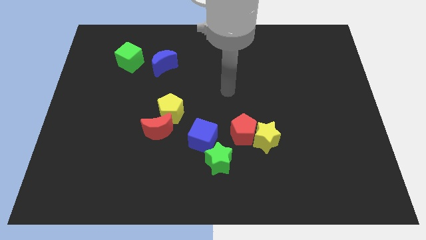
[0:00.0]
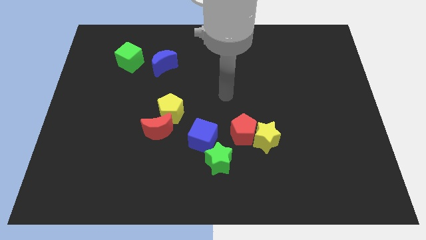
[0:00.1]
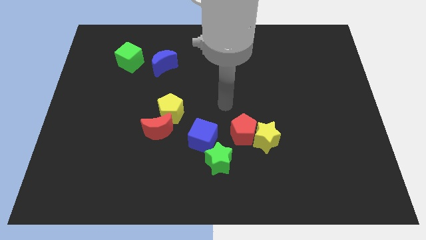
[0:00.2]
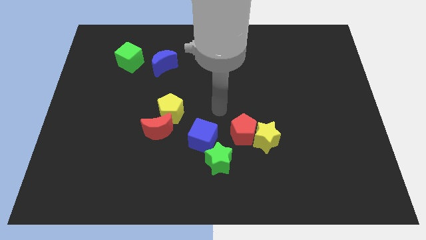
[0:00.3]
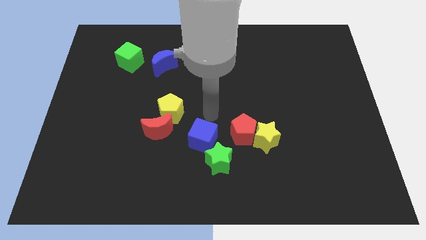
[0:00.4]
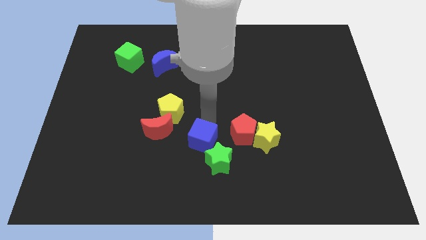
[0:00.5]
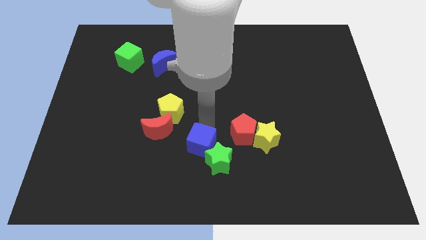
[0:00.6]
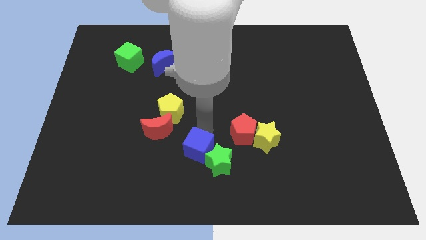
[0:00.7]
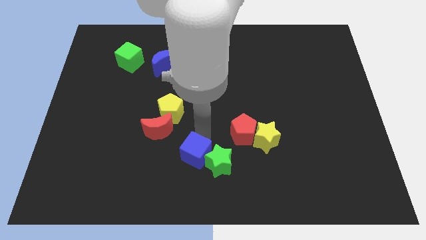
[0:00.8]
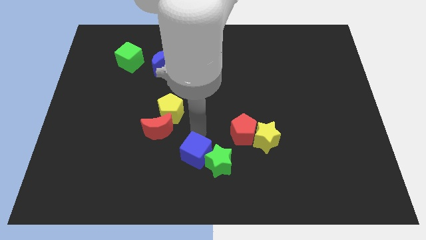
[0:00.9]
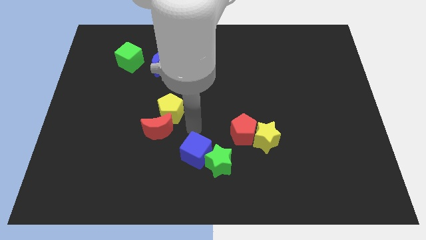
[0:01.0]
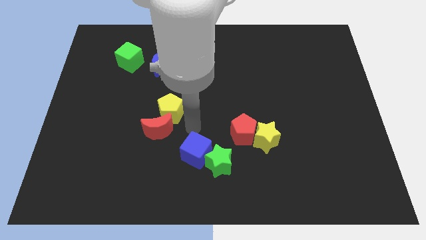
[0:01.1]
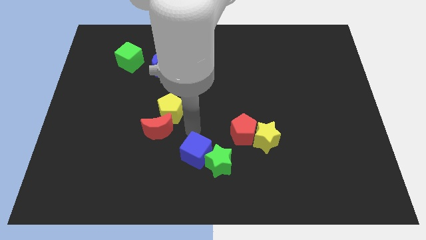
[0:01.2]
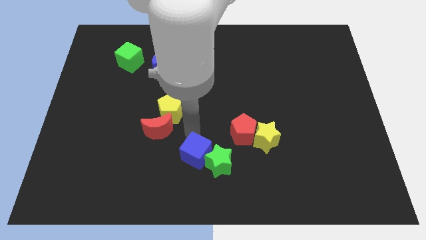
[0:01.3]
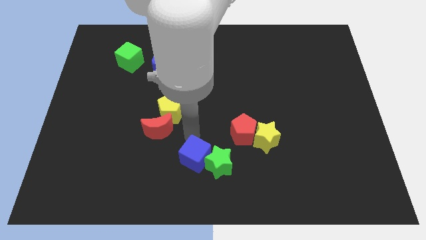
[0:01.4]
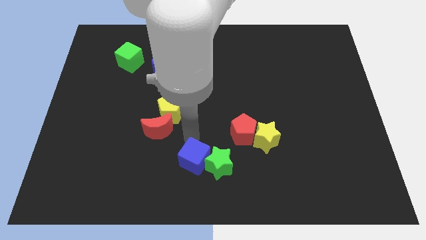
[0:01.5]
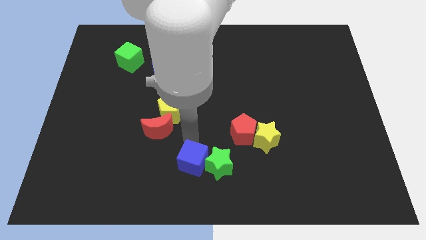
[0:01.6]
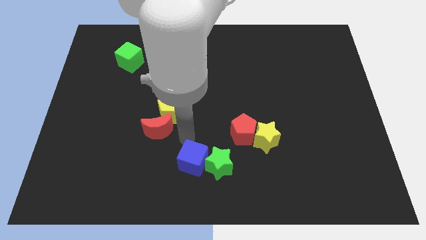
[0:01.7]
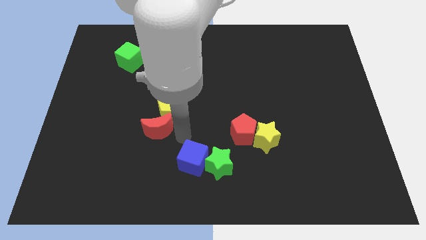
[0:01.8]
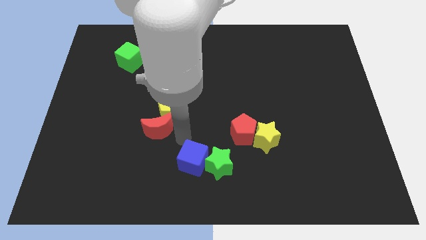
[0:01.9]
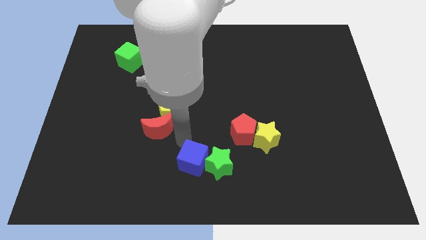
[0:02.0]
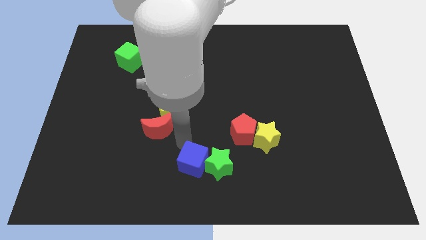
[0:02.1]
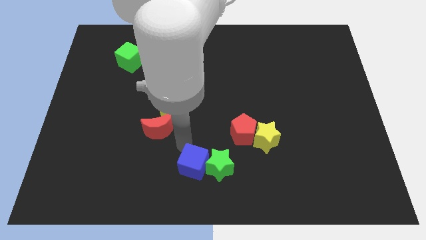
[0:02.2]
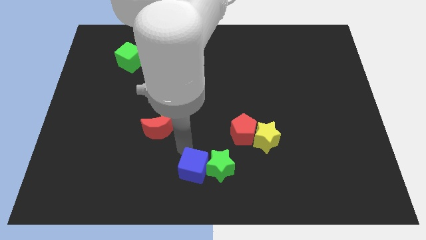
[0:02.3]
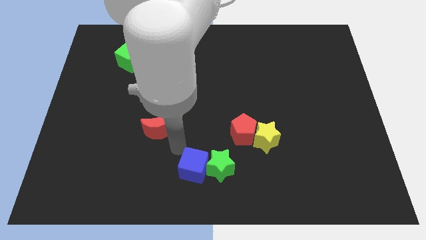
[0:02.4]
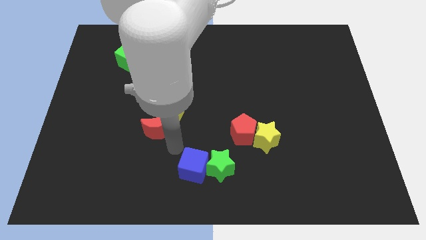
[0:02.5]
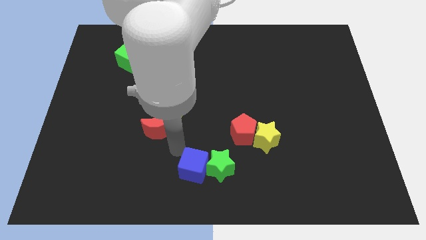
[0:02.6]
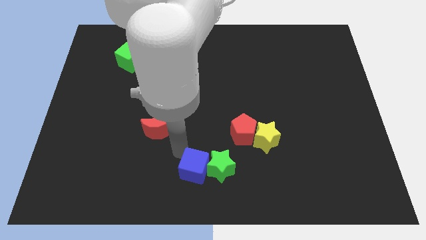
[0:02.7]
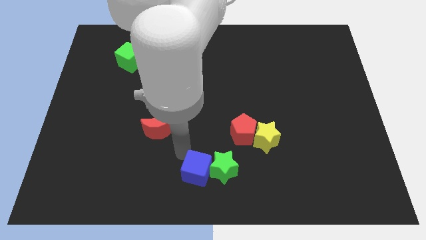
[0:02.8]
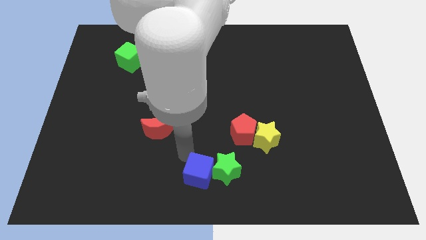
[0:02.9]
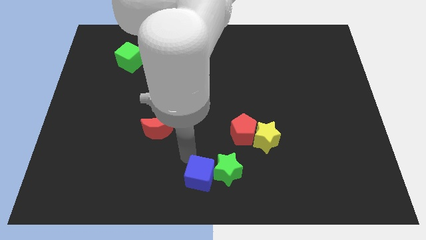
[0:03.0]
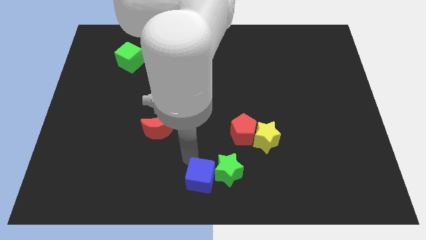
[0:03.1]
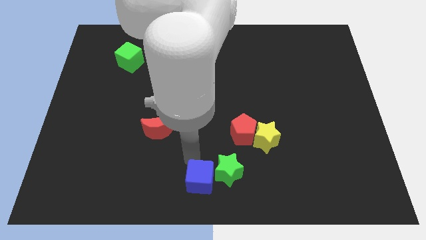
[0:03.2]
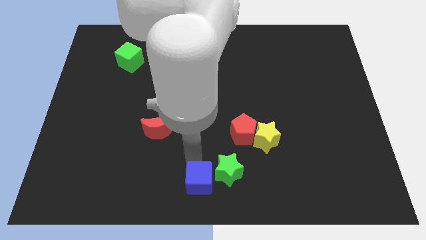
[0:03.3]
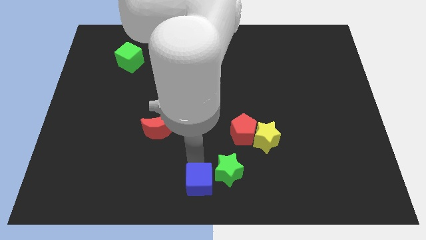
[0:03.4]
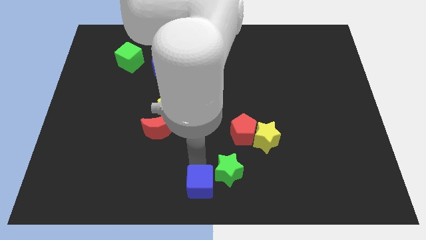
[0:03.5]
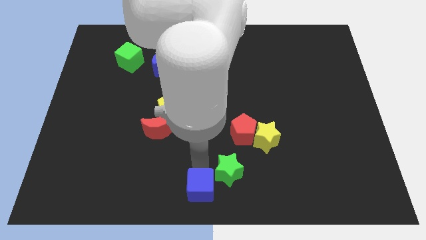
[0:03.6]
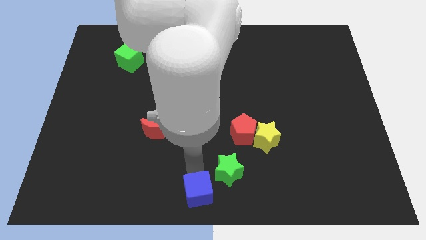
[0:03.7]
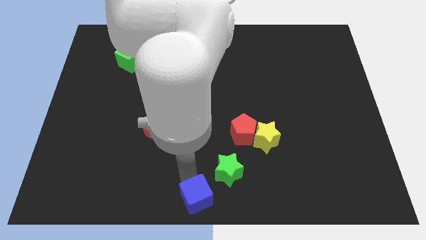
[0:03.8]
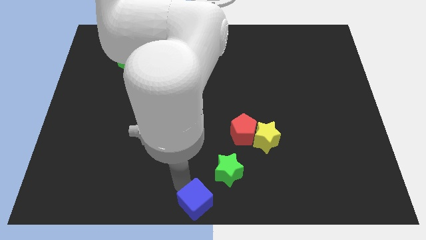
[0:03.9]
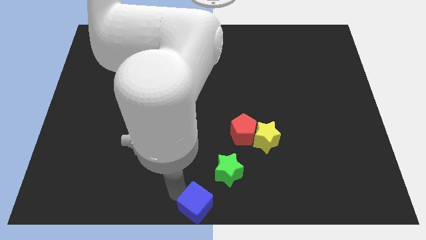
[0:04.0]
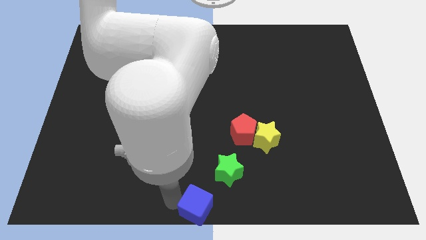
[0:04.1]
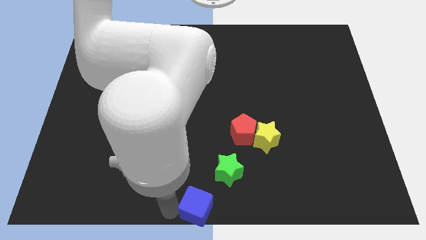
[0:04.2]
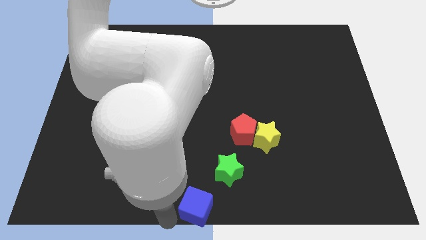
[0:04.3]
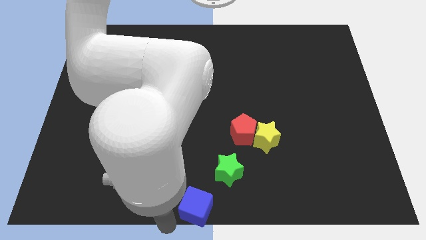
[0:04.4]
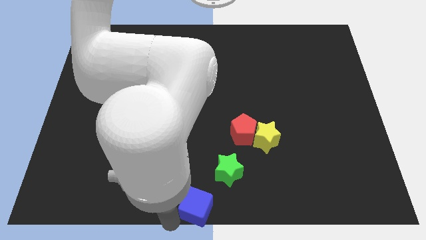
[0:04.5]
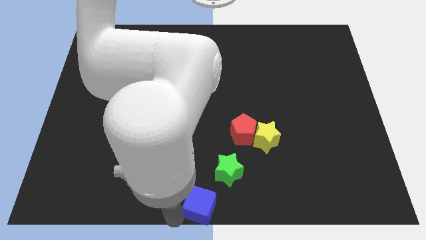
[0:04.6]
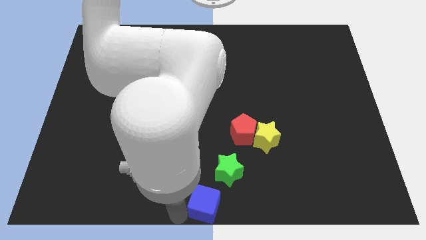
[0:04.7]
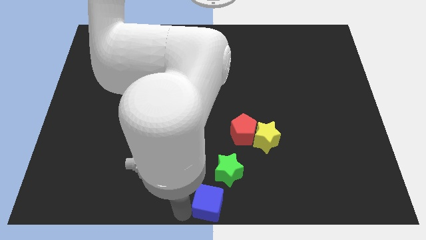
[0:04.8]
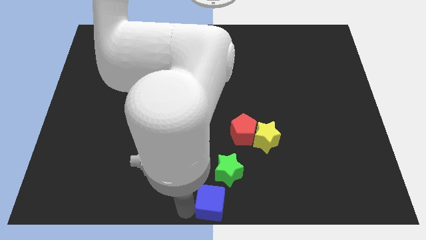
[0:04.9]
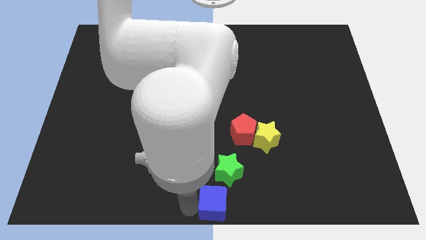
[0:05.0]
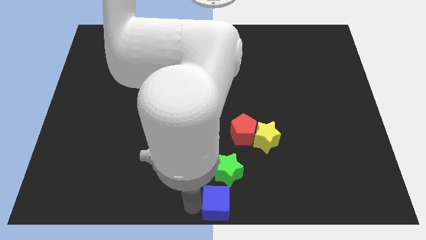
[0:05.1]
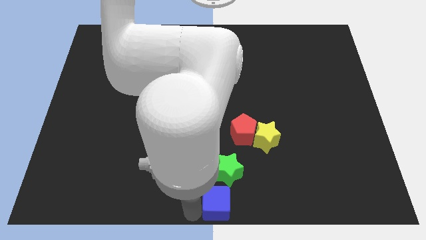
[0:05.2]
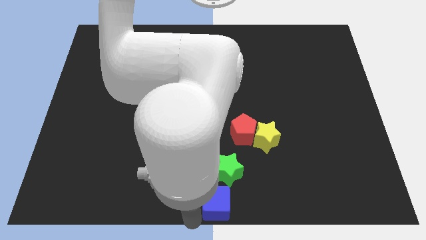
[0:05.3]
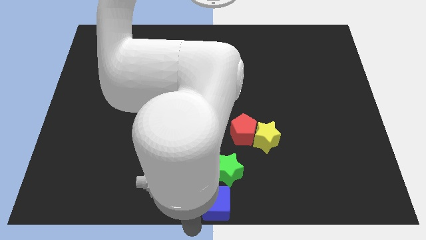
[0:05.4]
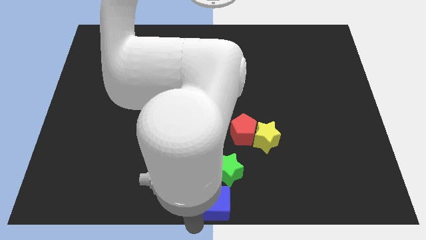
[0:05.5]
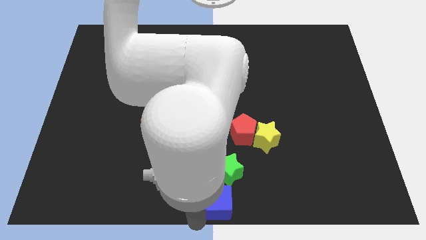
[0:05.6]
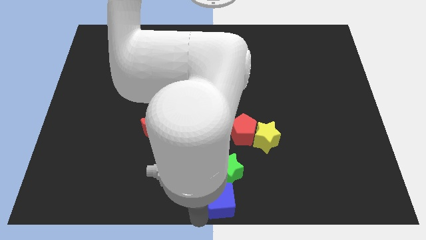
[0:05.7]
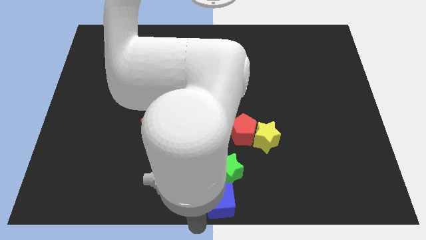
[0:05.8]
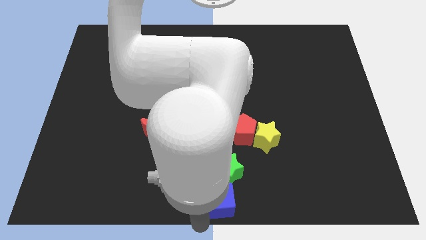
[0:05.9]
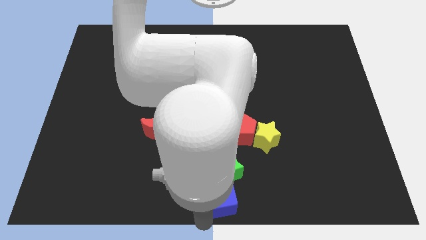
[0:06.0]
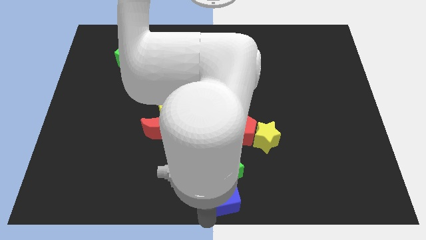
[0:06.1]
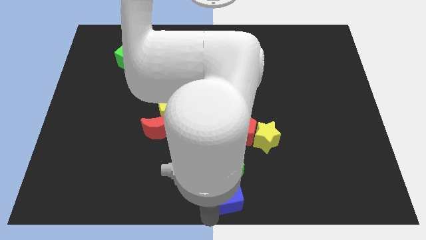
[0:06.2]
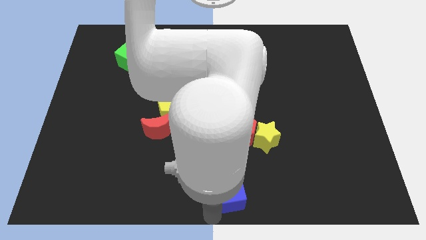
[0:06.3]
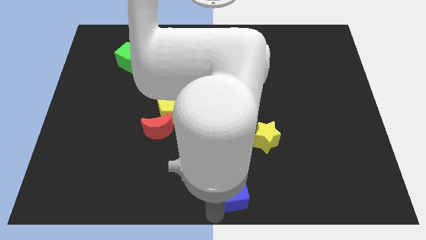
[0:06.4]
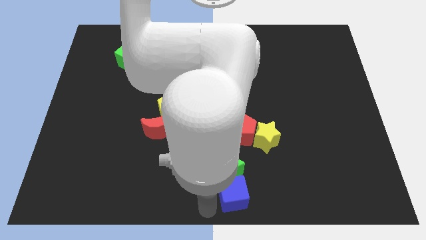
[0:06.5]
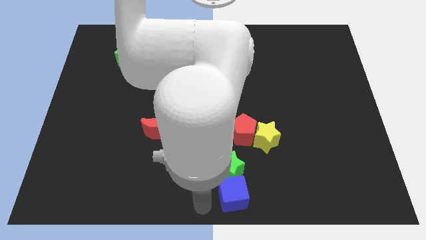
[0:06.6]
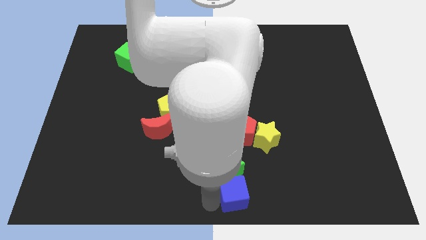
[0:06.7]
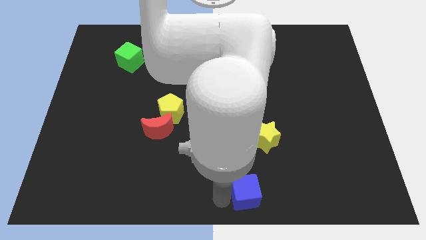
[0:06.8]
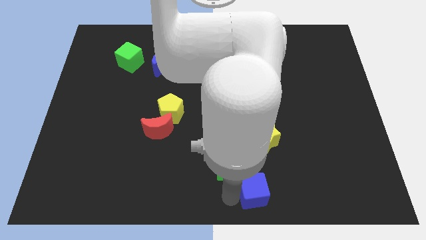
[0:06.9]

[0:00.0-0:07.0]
slide the blue cube to the bottom side of the yellow star
